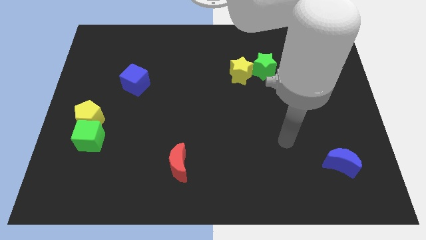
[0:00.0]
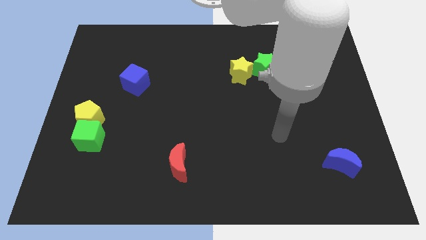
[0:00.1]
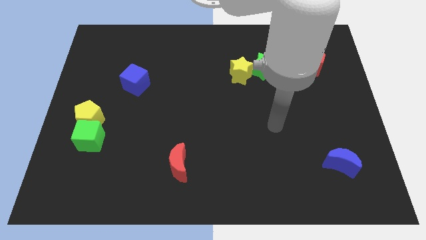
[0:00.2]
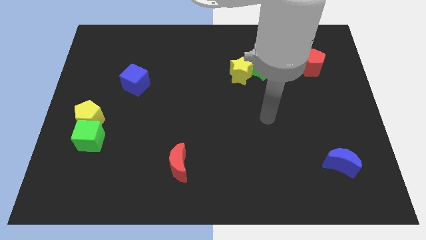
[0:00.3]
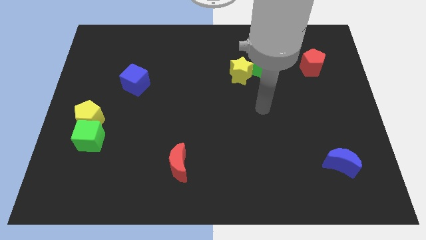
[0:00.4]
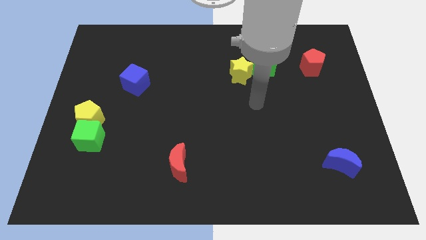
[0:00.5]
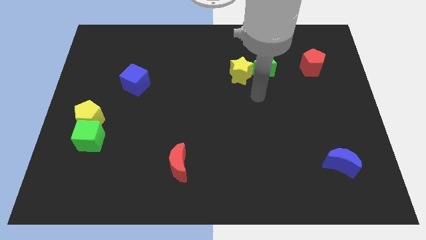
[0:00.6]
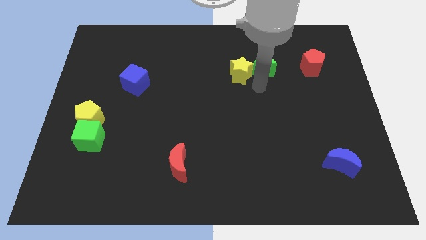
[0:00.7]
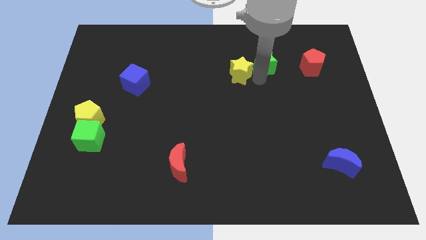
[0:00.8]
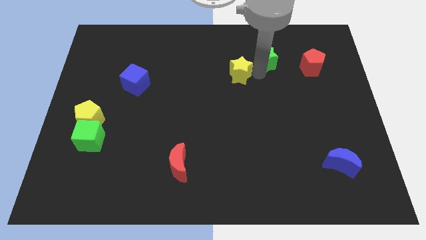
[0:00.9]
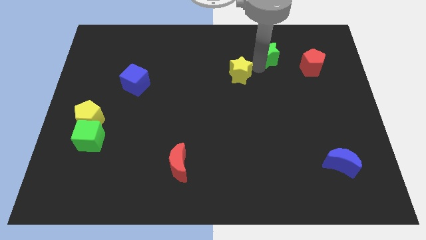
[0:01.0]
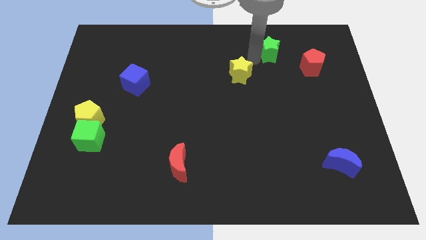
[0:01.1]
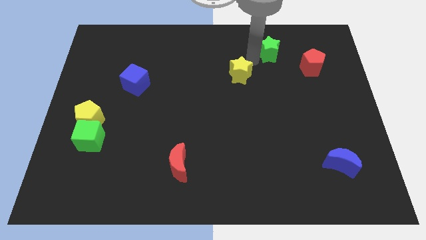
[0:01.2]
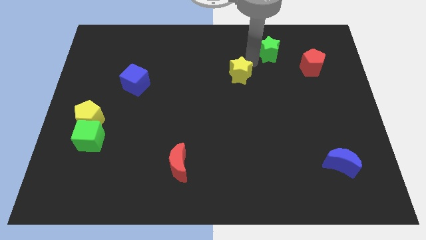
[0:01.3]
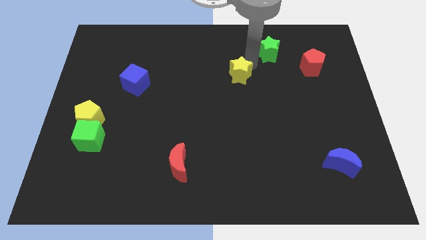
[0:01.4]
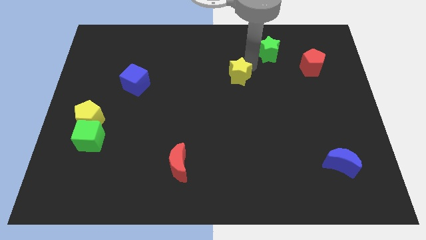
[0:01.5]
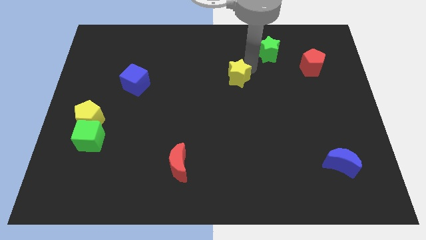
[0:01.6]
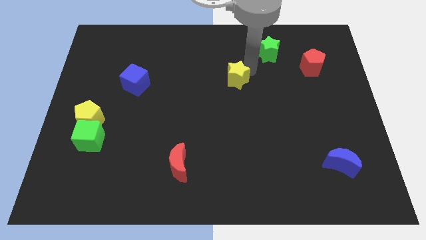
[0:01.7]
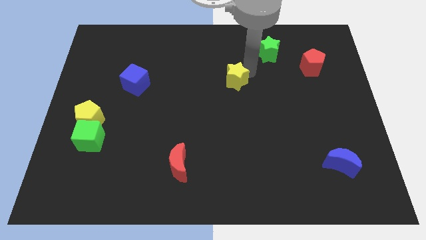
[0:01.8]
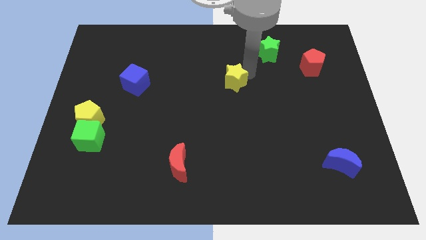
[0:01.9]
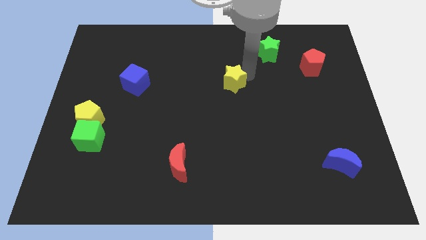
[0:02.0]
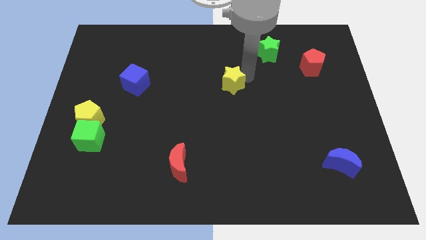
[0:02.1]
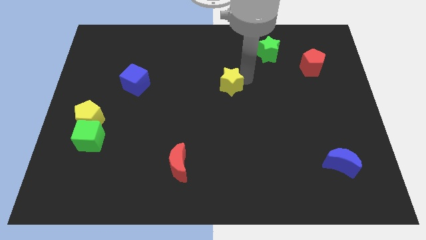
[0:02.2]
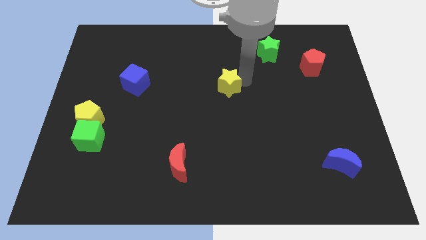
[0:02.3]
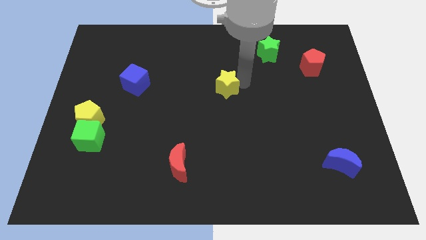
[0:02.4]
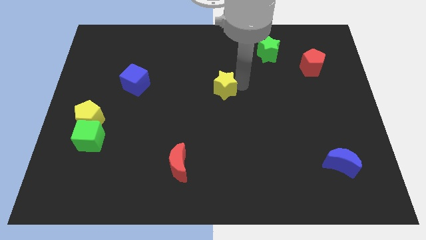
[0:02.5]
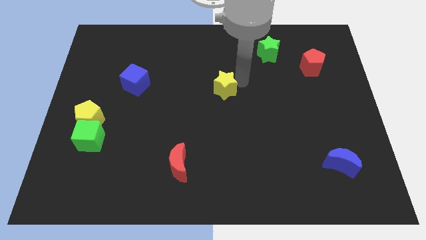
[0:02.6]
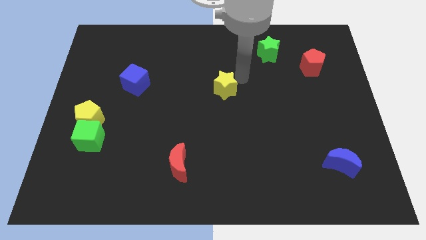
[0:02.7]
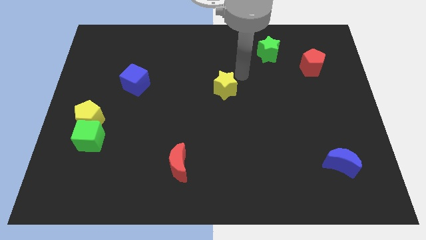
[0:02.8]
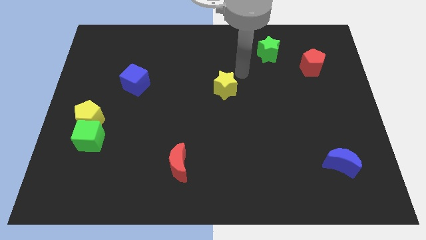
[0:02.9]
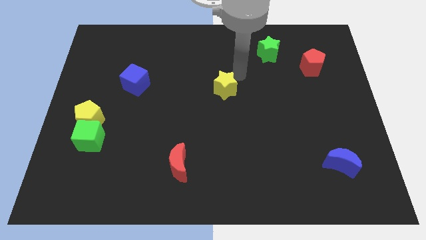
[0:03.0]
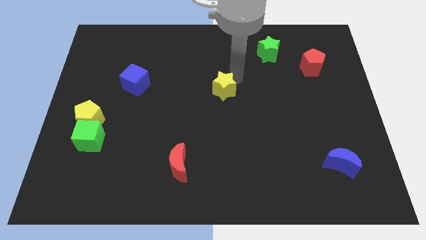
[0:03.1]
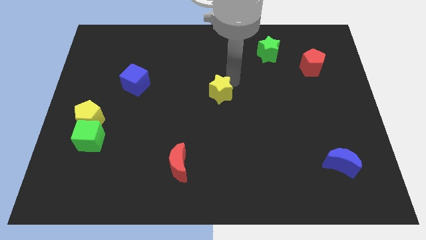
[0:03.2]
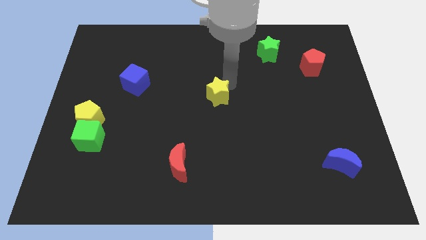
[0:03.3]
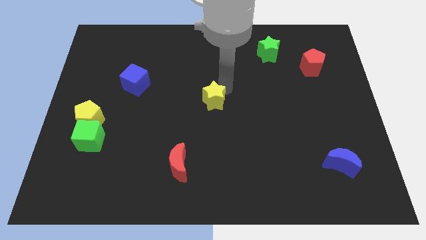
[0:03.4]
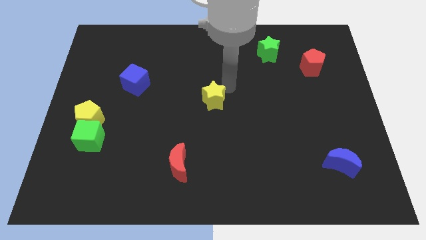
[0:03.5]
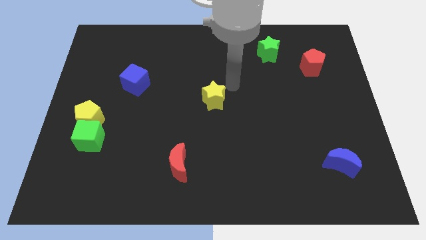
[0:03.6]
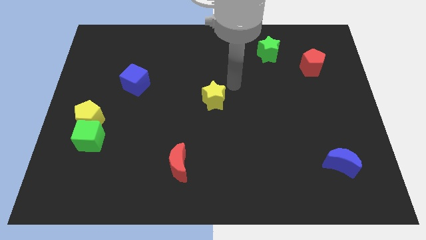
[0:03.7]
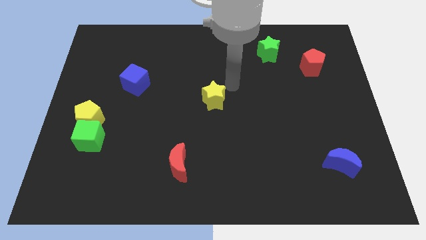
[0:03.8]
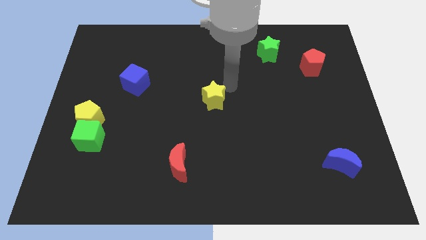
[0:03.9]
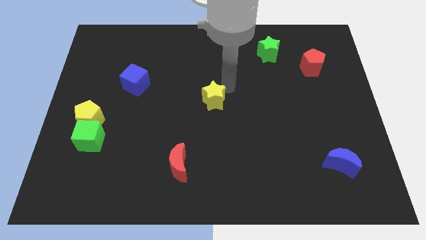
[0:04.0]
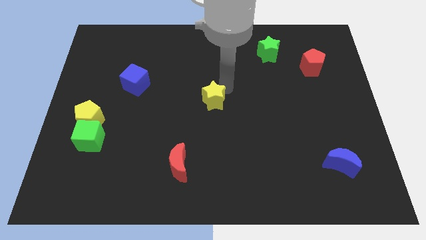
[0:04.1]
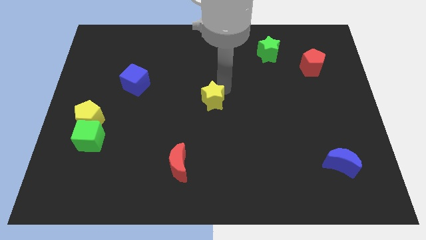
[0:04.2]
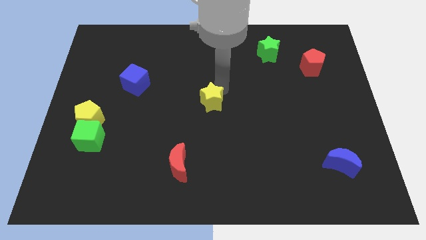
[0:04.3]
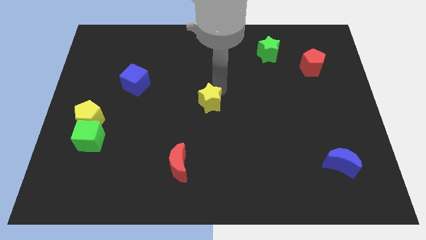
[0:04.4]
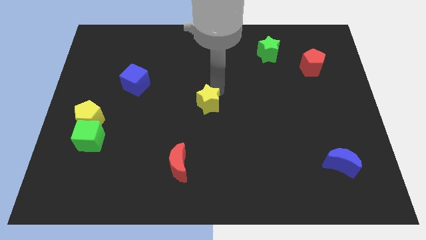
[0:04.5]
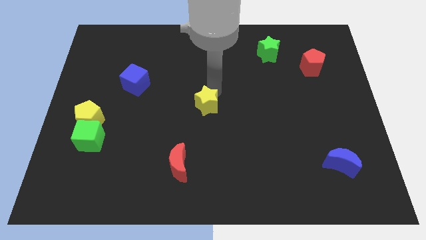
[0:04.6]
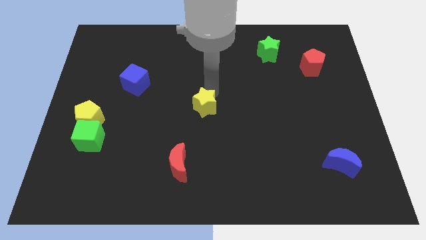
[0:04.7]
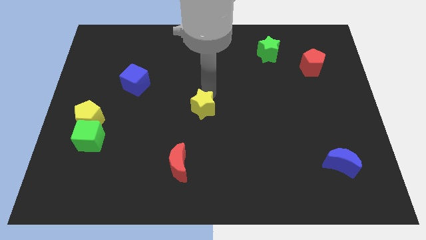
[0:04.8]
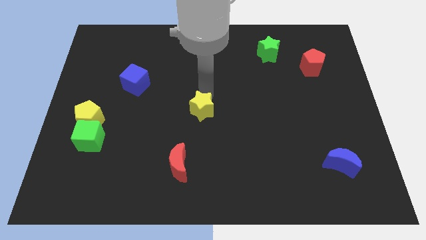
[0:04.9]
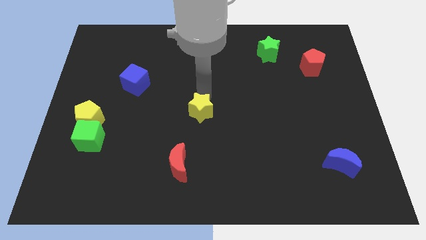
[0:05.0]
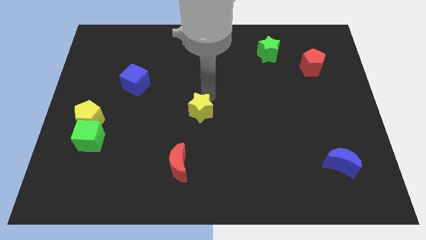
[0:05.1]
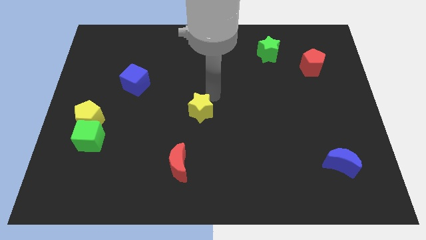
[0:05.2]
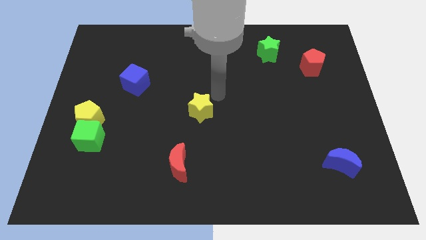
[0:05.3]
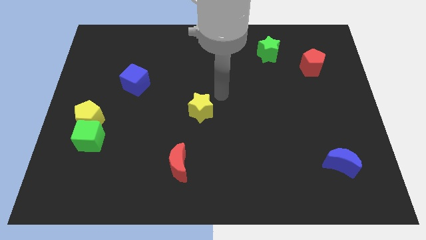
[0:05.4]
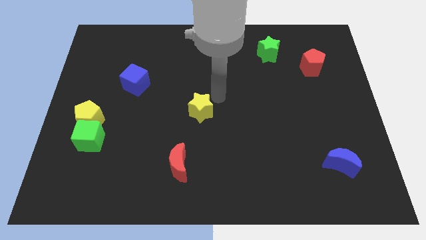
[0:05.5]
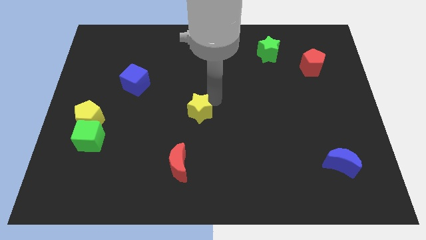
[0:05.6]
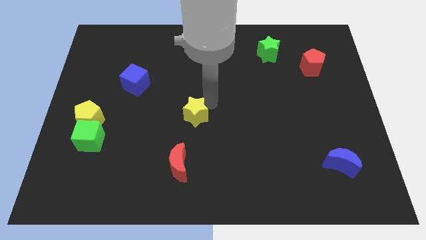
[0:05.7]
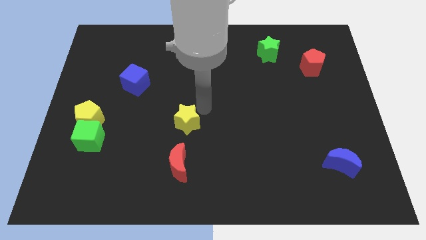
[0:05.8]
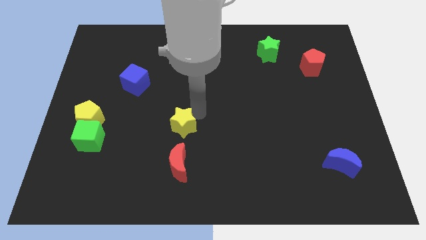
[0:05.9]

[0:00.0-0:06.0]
push the yellow star diagonally downwards and left

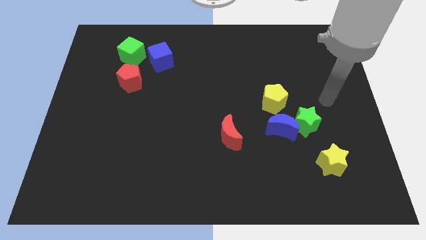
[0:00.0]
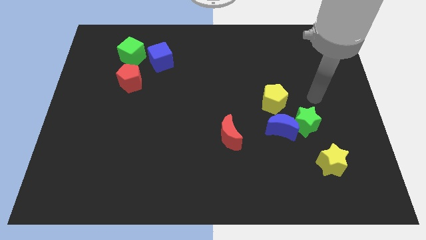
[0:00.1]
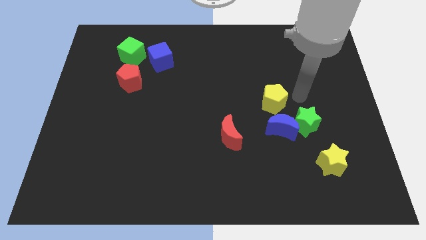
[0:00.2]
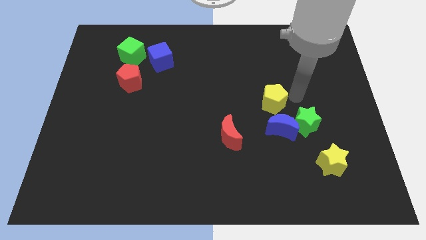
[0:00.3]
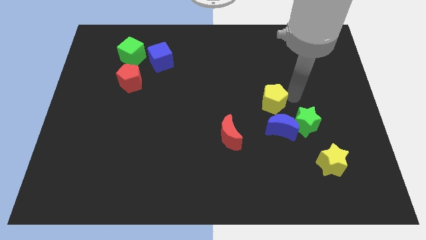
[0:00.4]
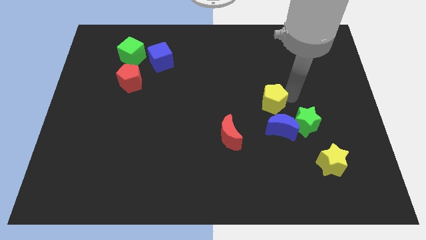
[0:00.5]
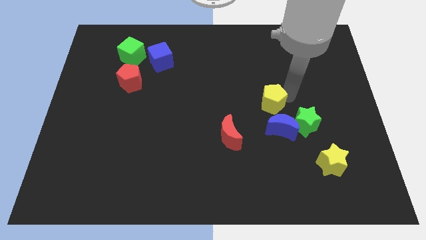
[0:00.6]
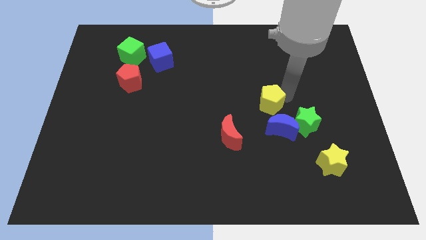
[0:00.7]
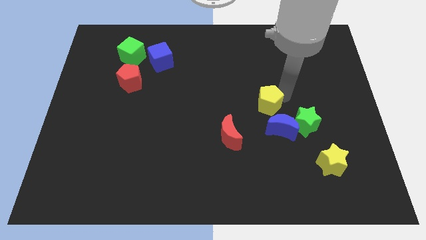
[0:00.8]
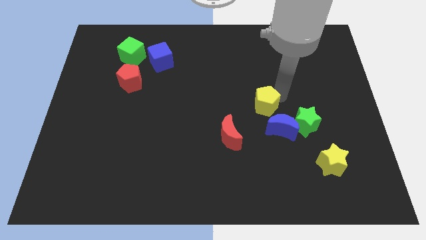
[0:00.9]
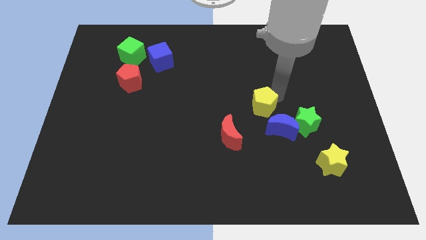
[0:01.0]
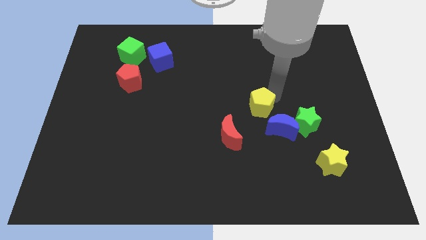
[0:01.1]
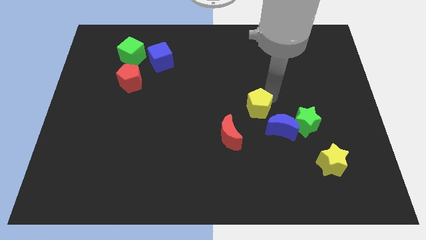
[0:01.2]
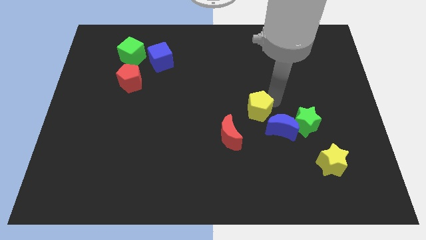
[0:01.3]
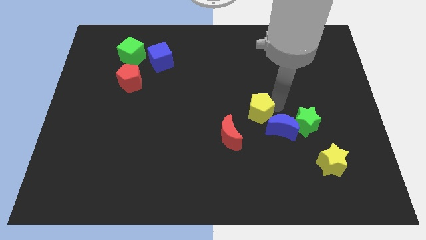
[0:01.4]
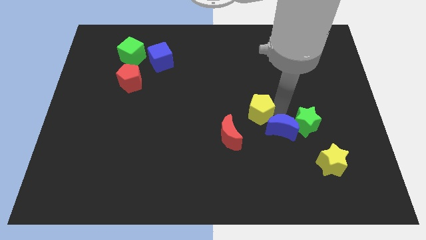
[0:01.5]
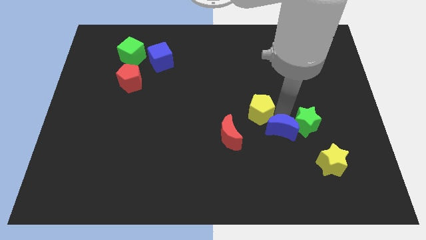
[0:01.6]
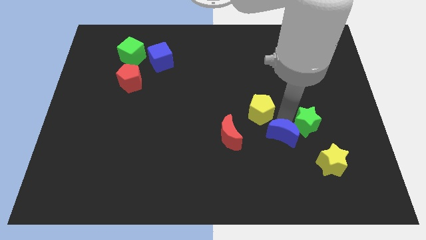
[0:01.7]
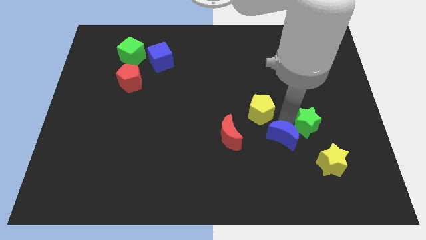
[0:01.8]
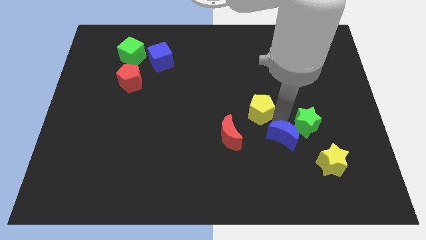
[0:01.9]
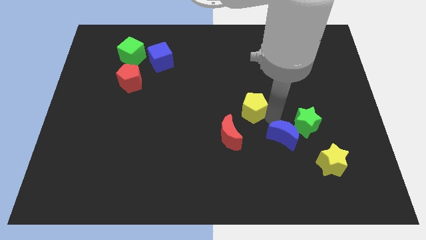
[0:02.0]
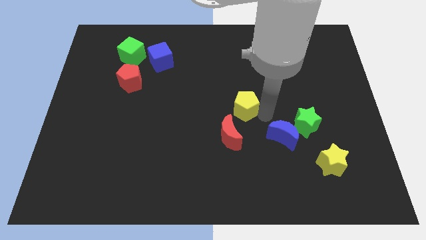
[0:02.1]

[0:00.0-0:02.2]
push the yellow pentagon a little to the left

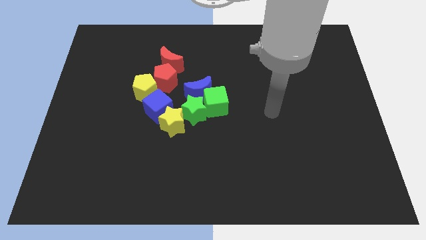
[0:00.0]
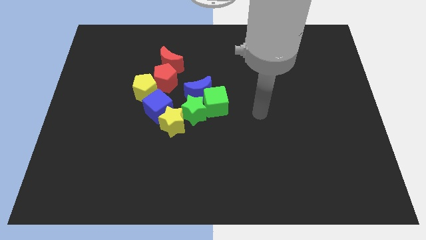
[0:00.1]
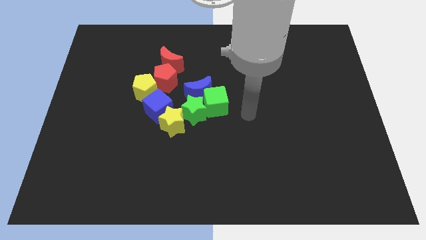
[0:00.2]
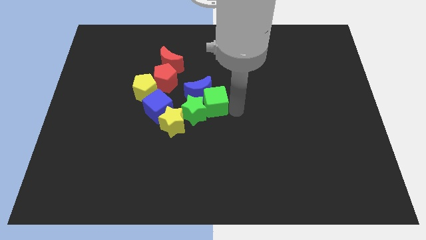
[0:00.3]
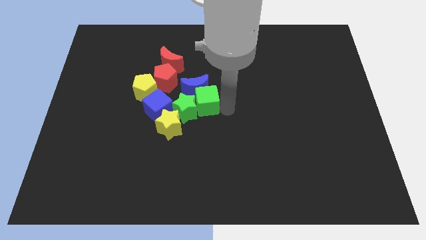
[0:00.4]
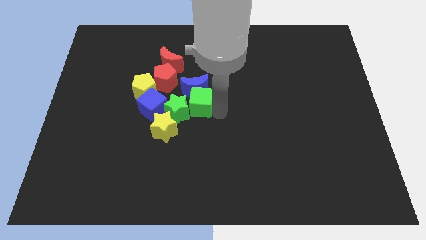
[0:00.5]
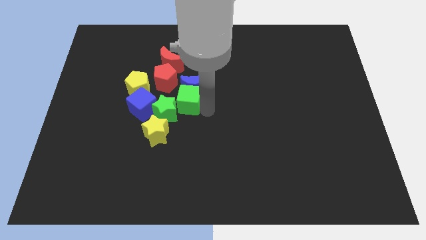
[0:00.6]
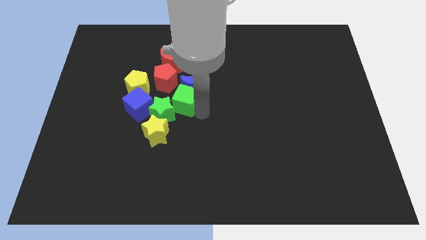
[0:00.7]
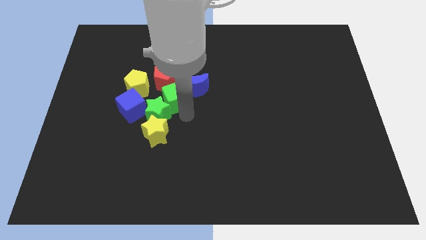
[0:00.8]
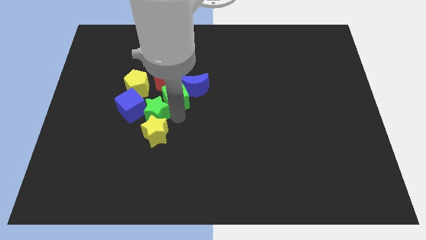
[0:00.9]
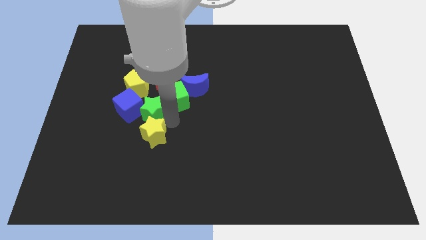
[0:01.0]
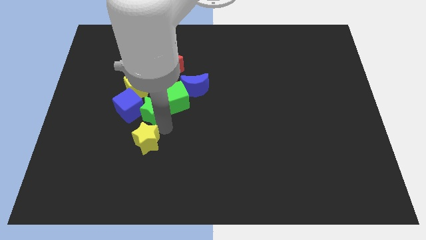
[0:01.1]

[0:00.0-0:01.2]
push the yellow star downwards and left diagonally a bit
